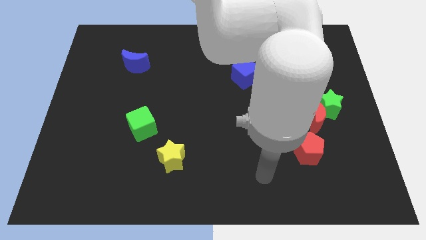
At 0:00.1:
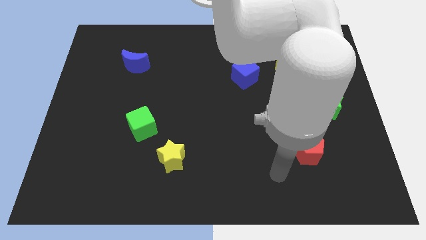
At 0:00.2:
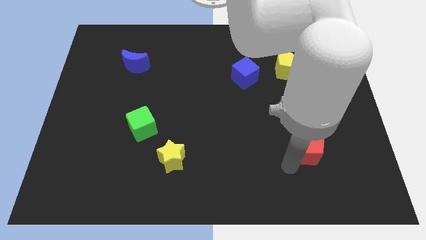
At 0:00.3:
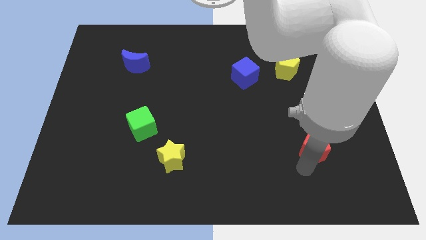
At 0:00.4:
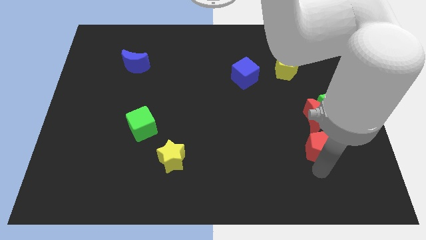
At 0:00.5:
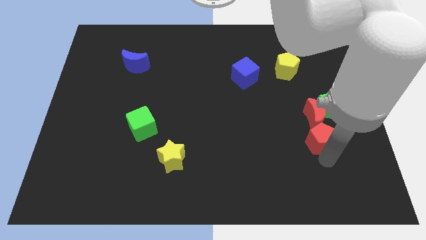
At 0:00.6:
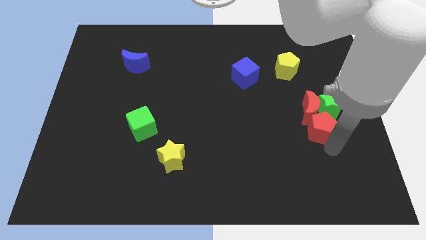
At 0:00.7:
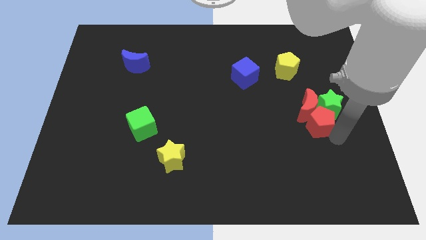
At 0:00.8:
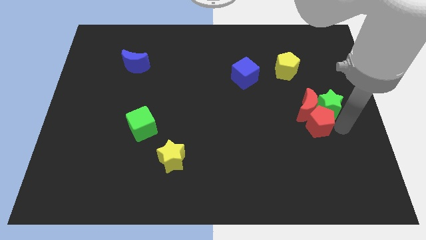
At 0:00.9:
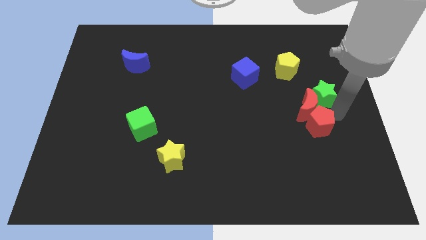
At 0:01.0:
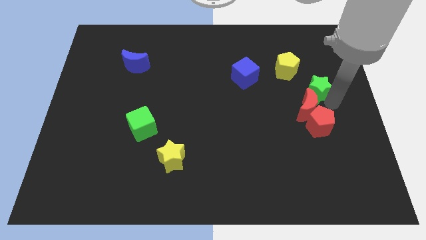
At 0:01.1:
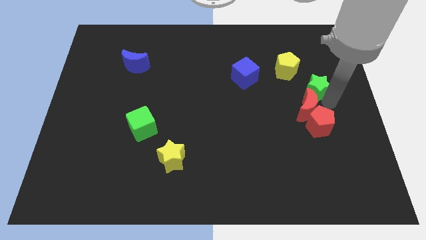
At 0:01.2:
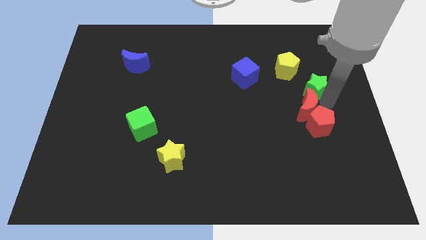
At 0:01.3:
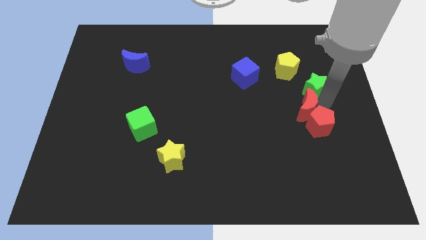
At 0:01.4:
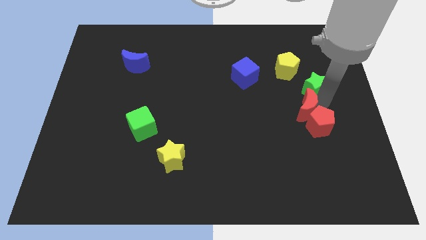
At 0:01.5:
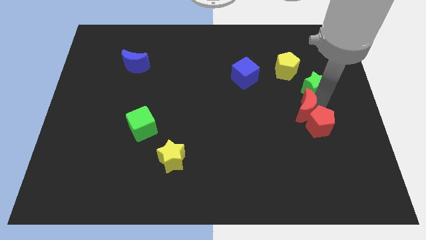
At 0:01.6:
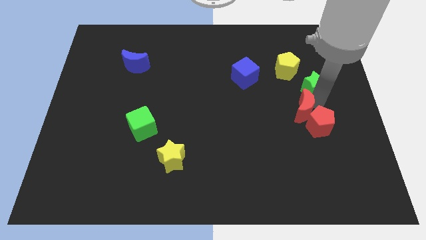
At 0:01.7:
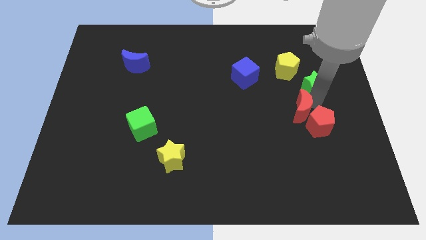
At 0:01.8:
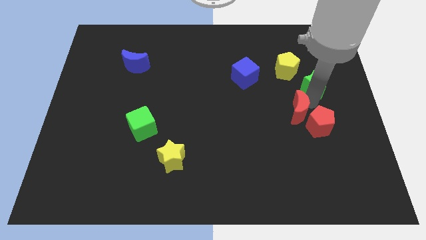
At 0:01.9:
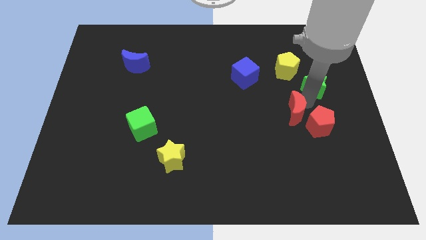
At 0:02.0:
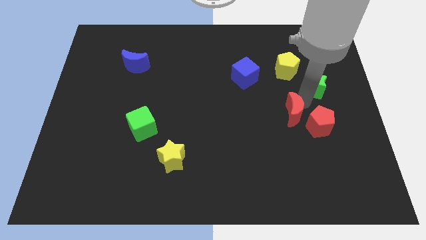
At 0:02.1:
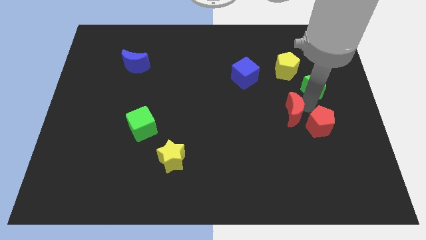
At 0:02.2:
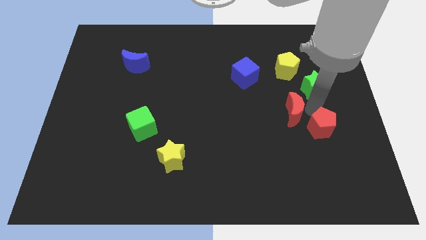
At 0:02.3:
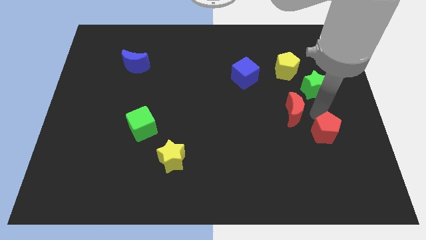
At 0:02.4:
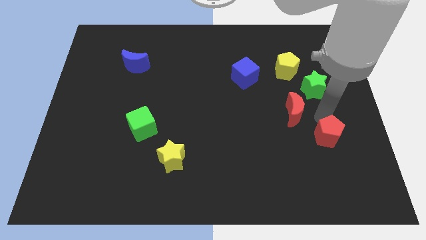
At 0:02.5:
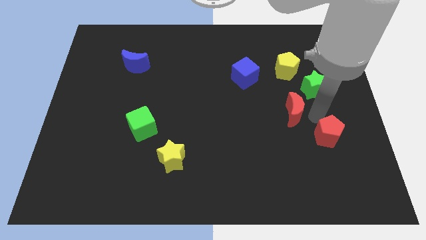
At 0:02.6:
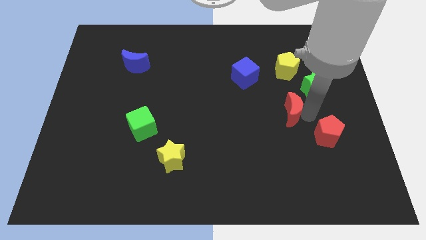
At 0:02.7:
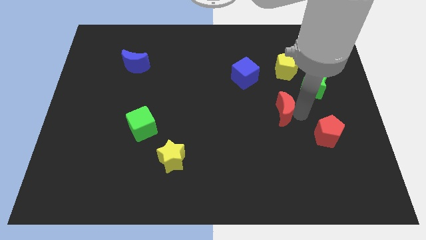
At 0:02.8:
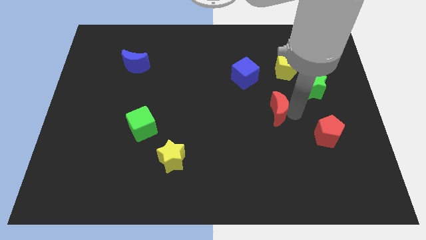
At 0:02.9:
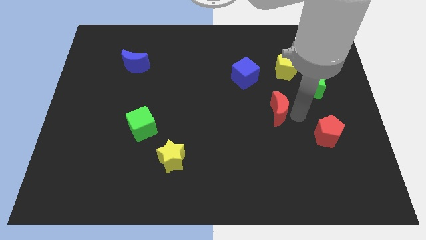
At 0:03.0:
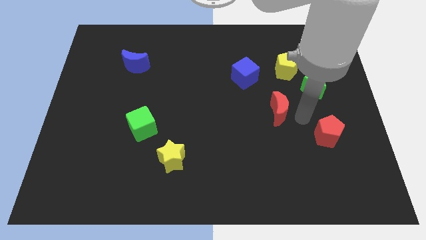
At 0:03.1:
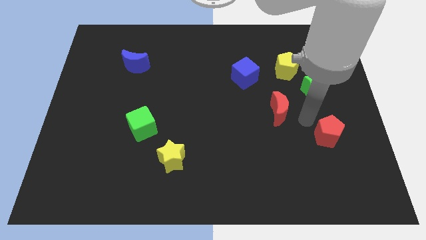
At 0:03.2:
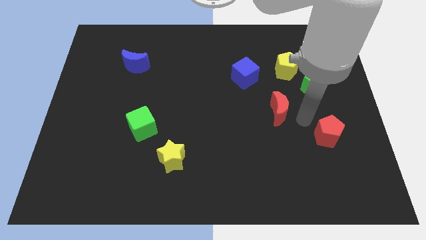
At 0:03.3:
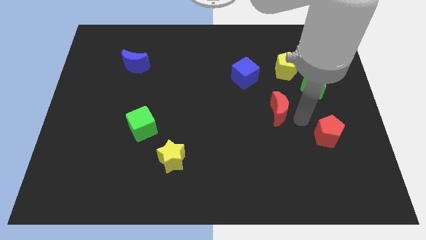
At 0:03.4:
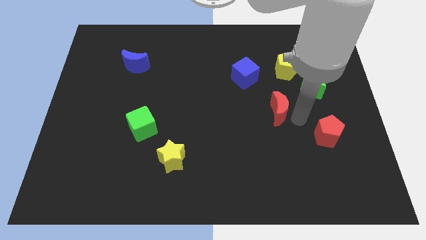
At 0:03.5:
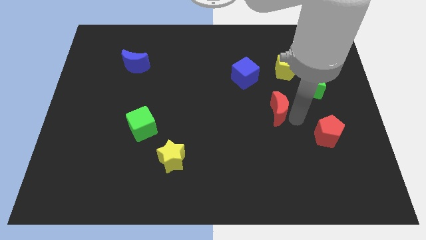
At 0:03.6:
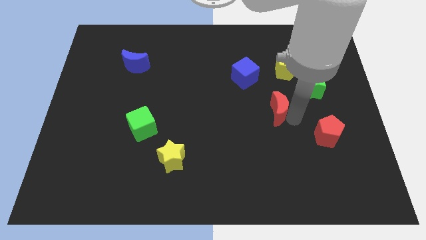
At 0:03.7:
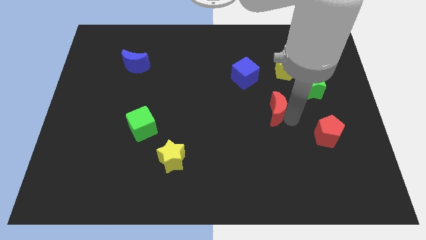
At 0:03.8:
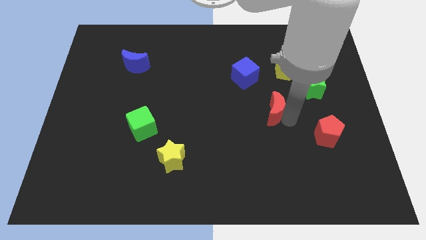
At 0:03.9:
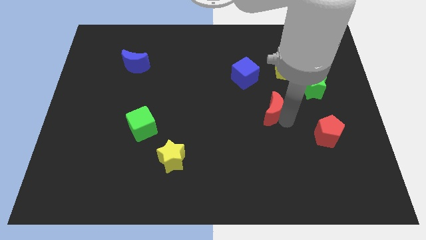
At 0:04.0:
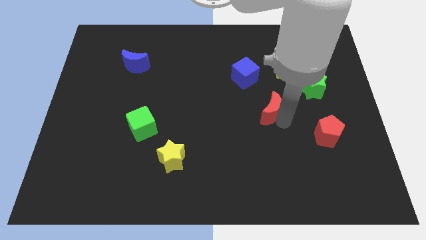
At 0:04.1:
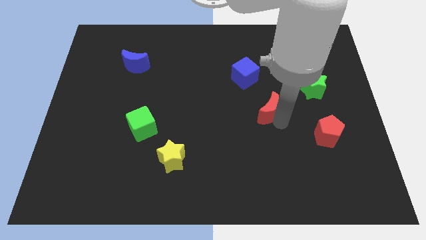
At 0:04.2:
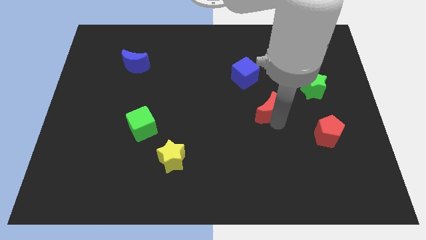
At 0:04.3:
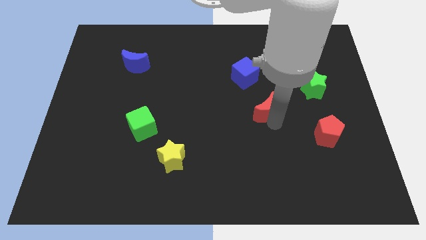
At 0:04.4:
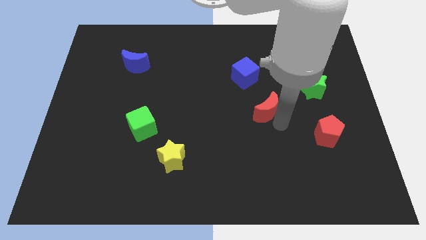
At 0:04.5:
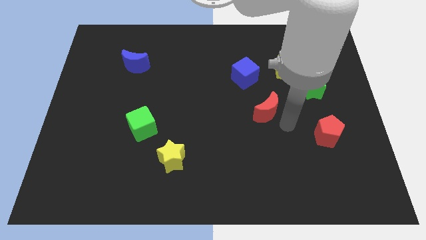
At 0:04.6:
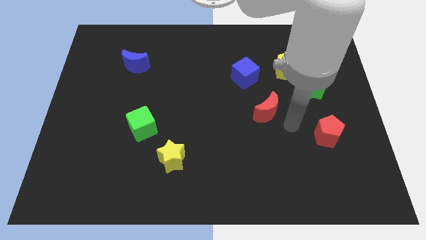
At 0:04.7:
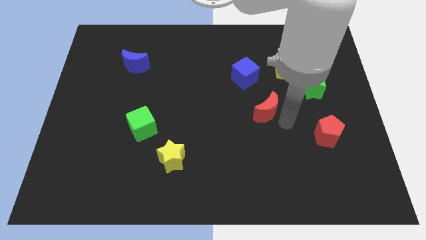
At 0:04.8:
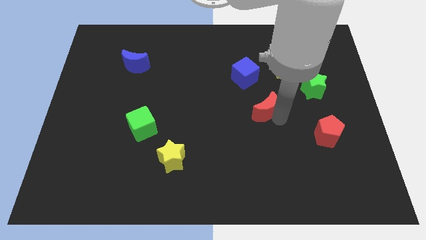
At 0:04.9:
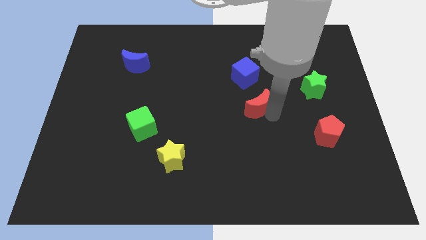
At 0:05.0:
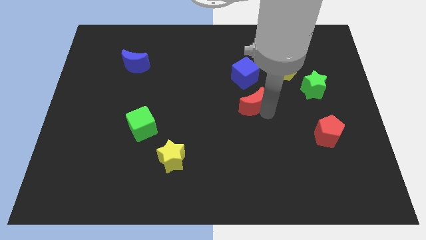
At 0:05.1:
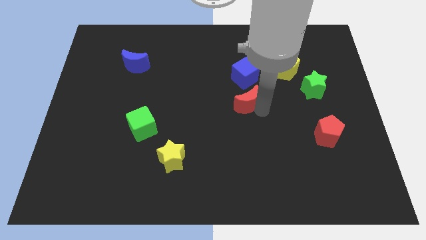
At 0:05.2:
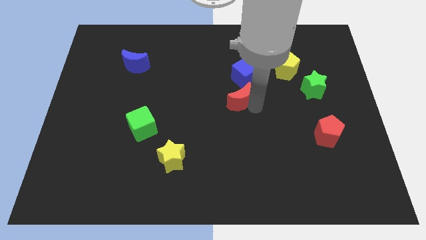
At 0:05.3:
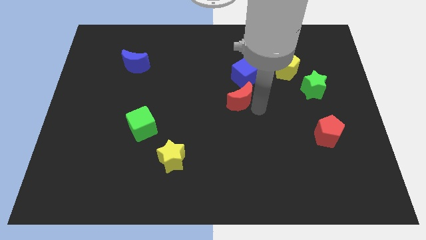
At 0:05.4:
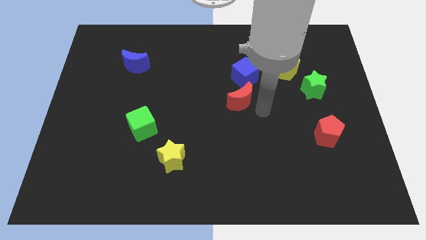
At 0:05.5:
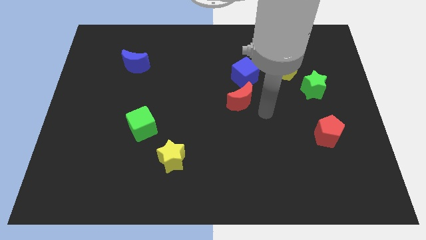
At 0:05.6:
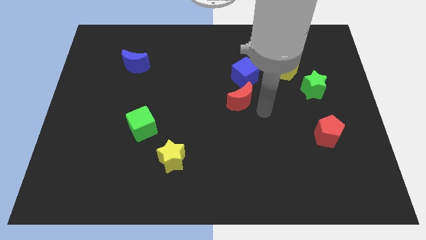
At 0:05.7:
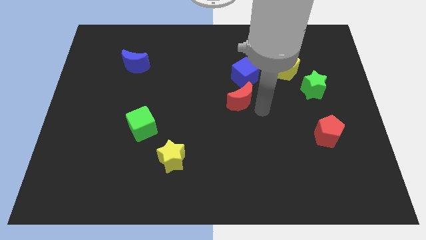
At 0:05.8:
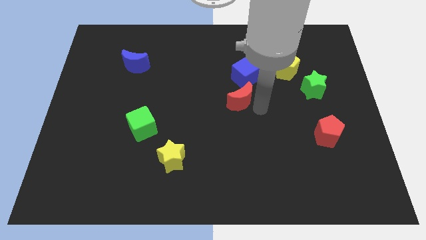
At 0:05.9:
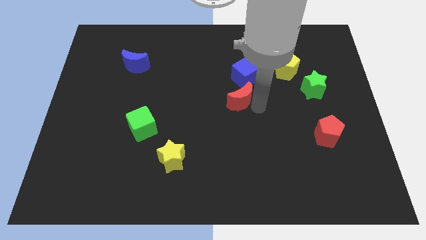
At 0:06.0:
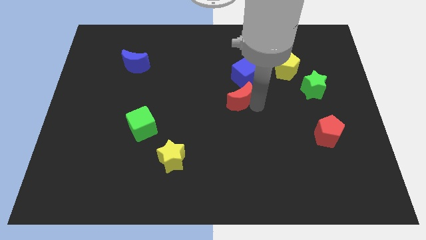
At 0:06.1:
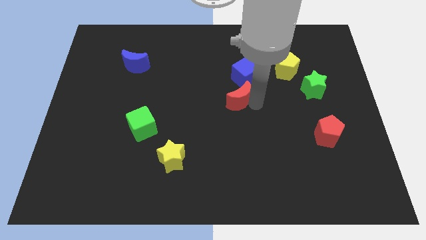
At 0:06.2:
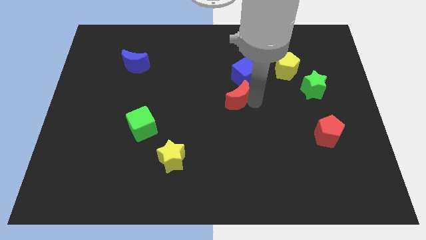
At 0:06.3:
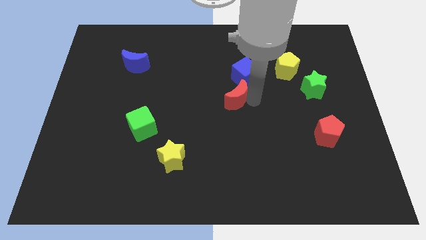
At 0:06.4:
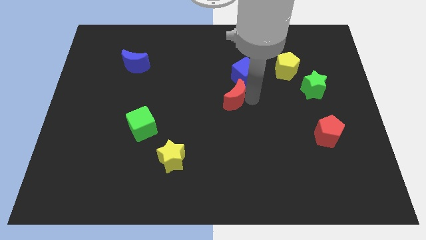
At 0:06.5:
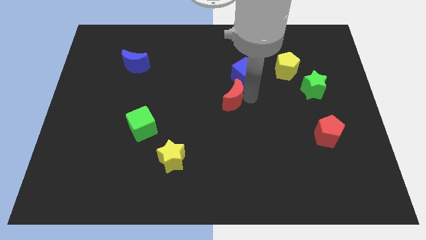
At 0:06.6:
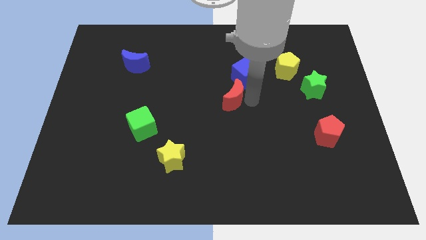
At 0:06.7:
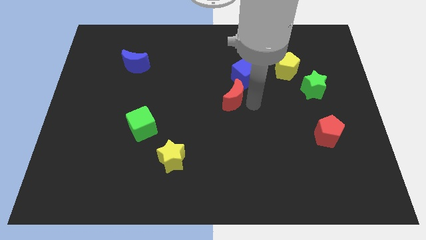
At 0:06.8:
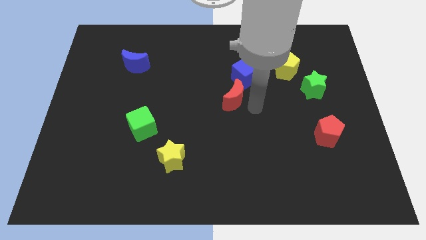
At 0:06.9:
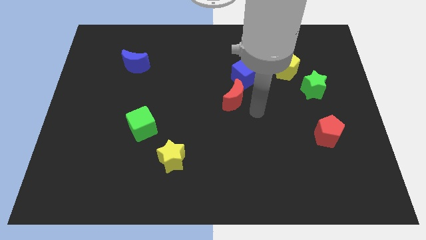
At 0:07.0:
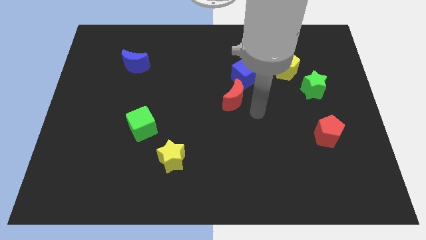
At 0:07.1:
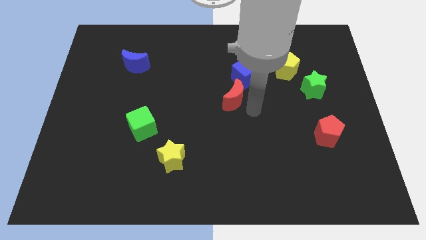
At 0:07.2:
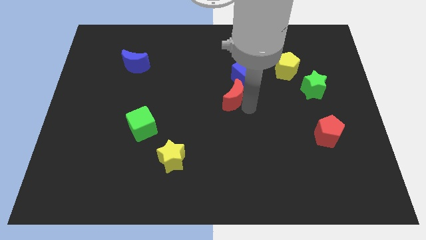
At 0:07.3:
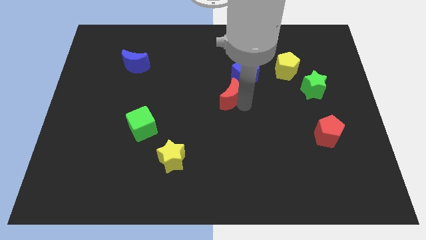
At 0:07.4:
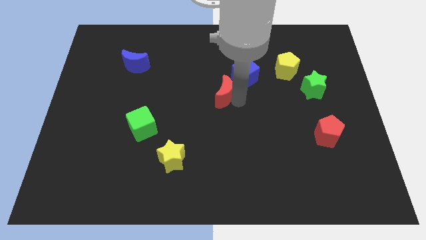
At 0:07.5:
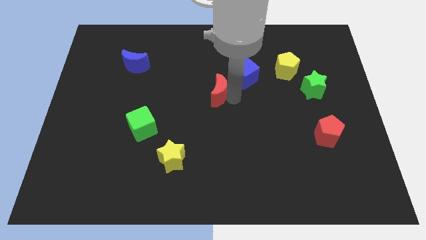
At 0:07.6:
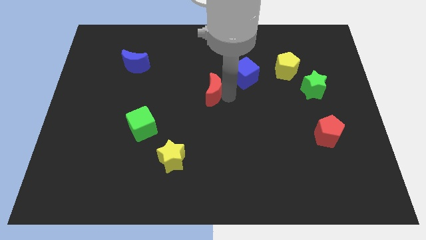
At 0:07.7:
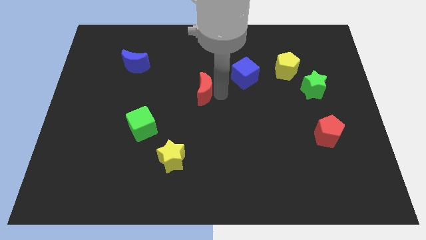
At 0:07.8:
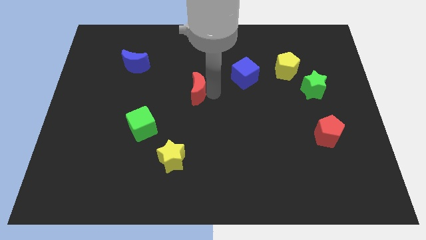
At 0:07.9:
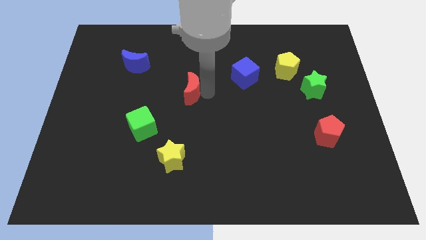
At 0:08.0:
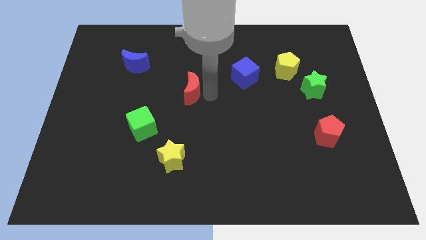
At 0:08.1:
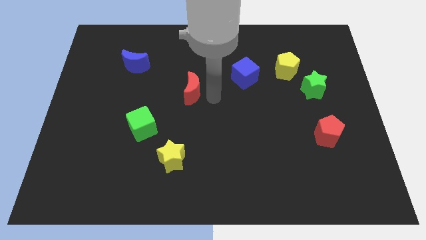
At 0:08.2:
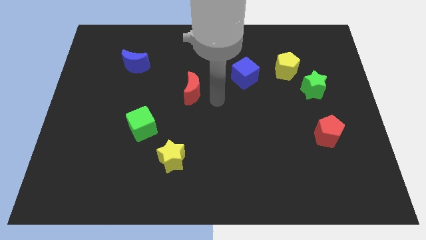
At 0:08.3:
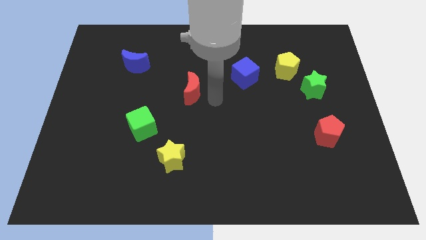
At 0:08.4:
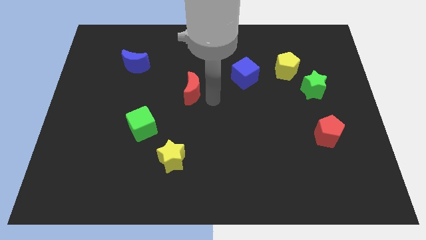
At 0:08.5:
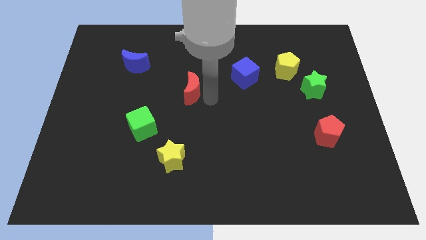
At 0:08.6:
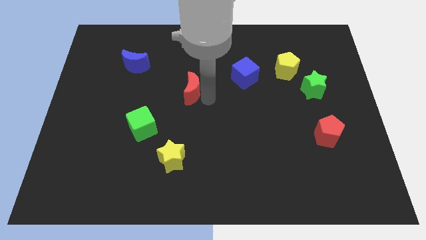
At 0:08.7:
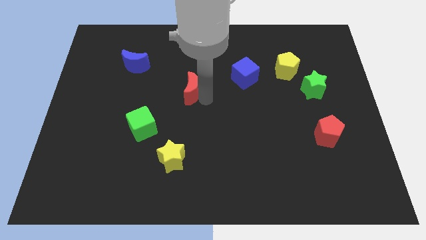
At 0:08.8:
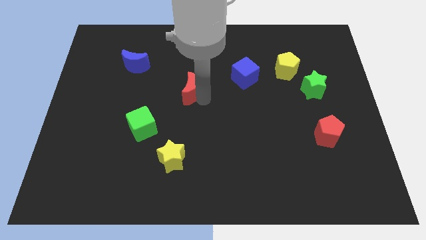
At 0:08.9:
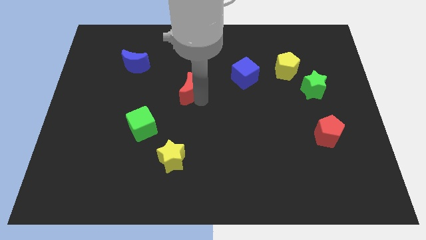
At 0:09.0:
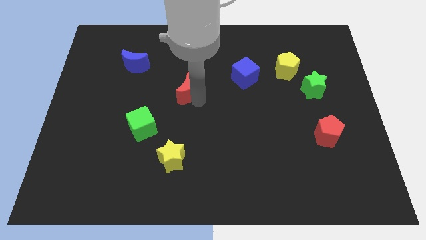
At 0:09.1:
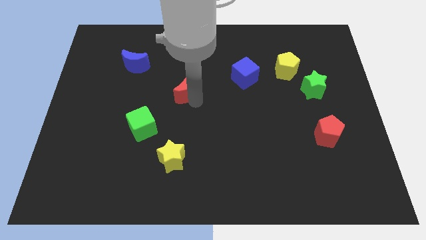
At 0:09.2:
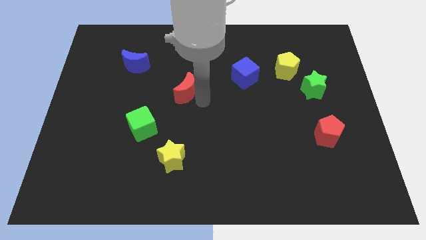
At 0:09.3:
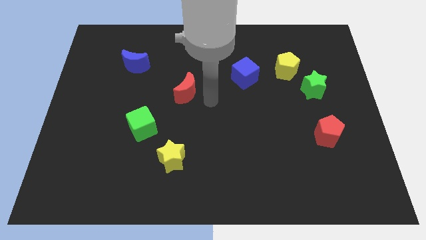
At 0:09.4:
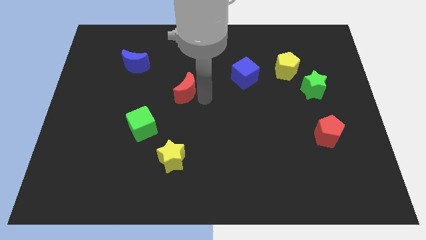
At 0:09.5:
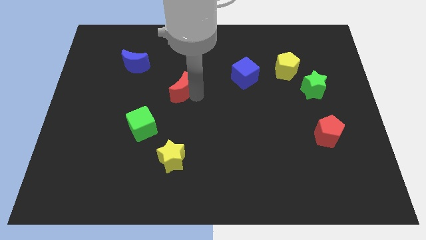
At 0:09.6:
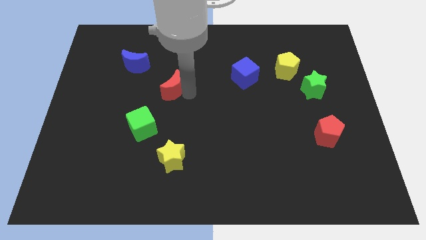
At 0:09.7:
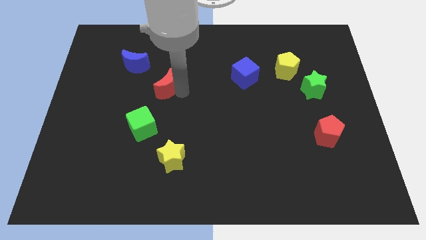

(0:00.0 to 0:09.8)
slide the red moon to the bottom right side of the blue moon
